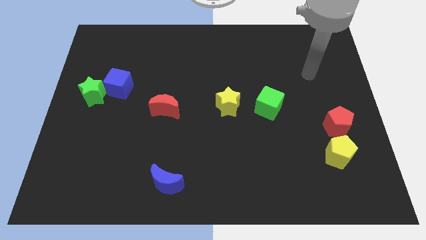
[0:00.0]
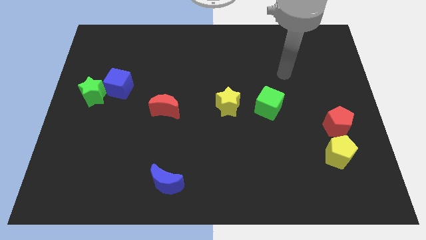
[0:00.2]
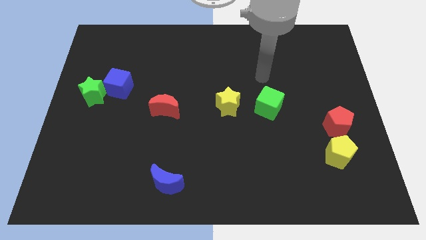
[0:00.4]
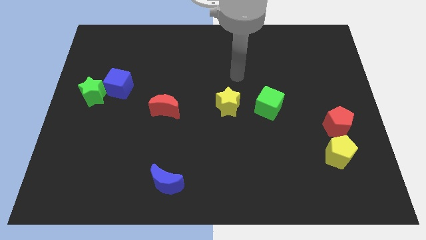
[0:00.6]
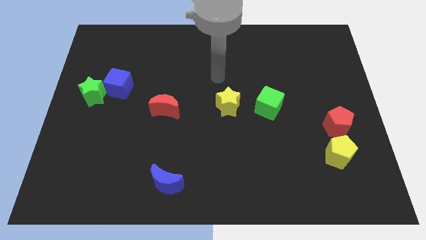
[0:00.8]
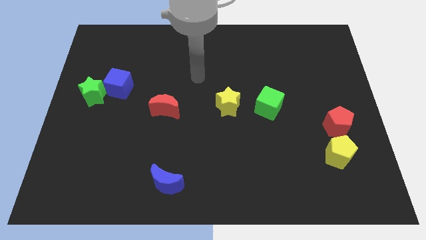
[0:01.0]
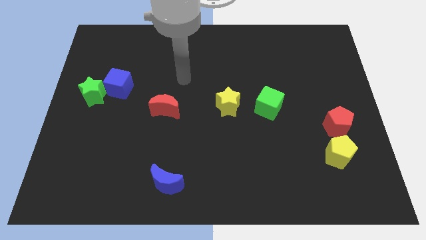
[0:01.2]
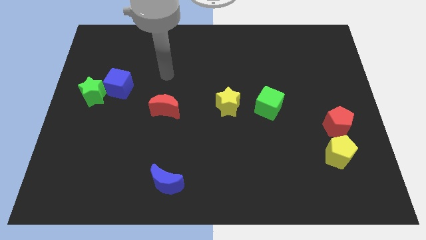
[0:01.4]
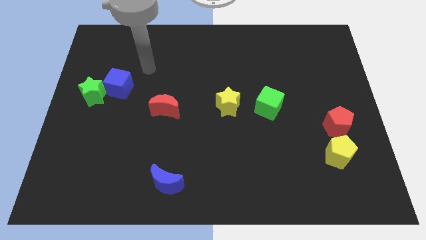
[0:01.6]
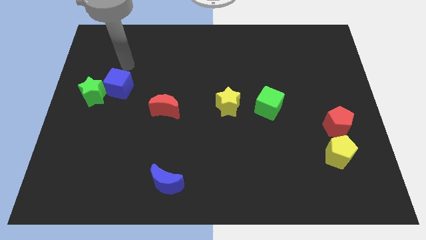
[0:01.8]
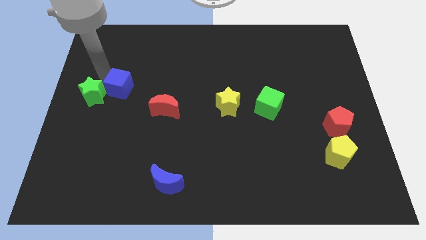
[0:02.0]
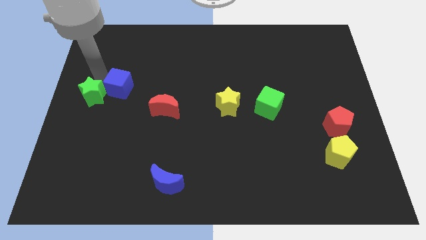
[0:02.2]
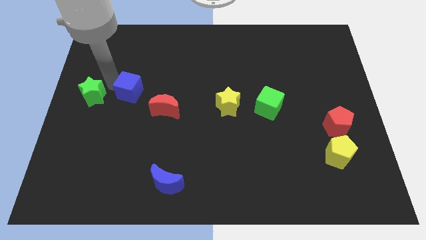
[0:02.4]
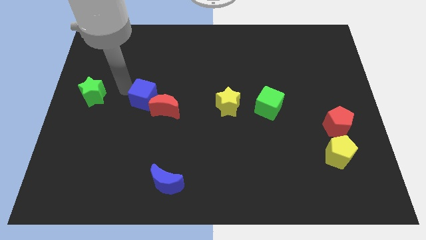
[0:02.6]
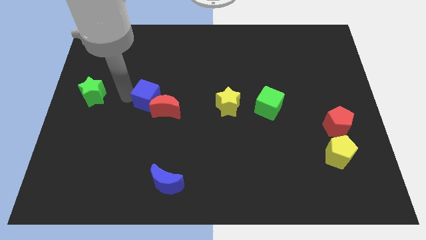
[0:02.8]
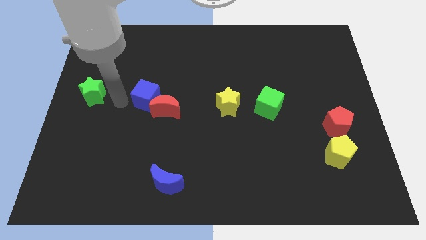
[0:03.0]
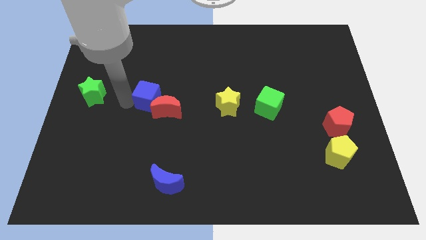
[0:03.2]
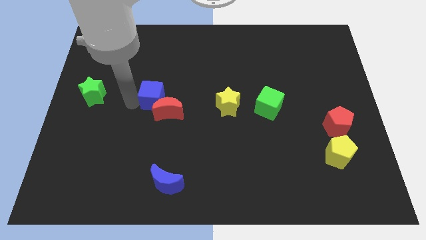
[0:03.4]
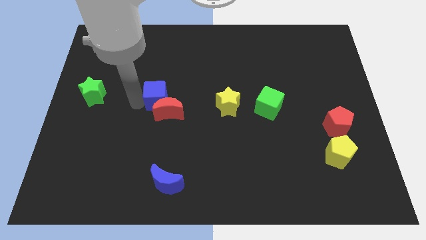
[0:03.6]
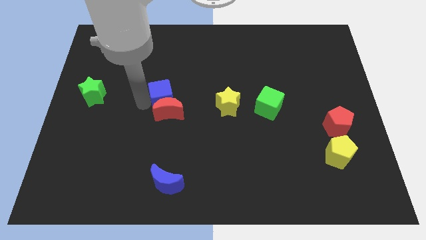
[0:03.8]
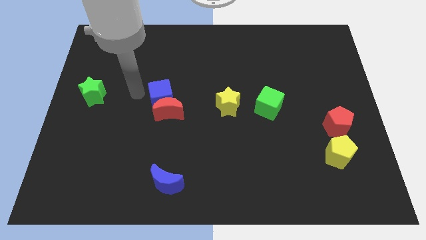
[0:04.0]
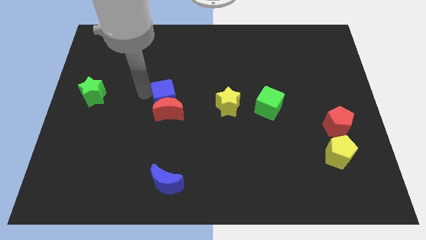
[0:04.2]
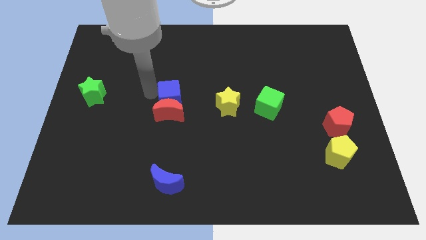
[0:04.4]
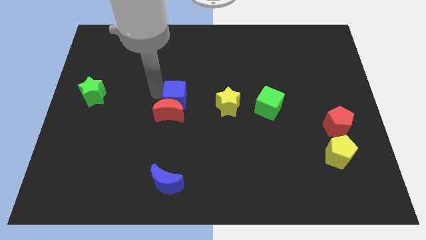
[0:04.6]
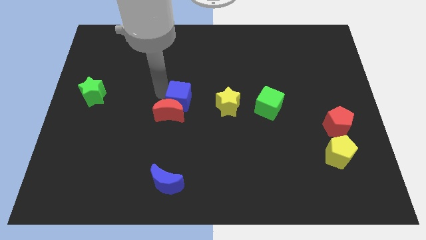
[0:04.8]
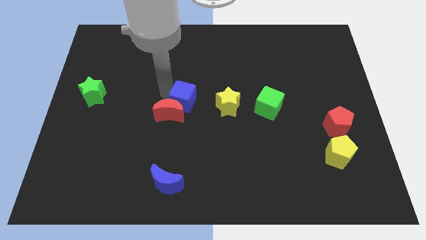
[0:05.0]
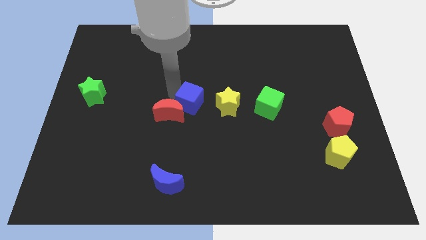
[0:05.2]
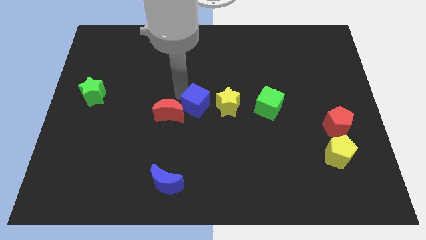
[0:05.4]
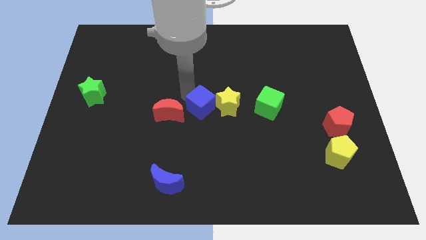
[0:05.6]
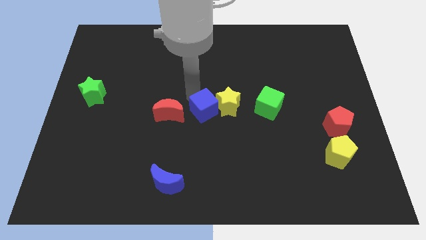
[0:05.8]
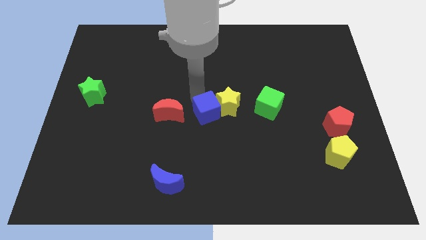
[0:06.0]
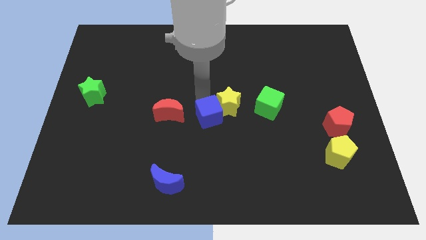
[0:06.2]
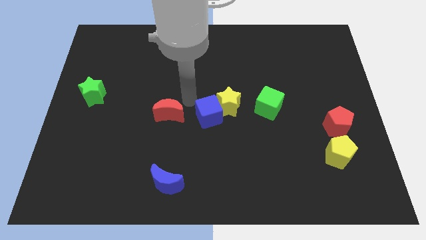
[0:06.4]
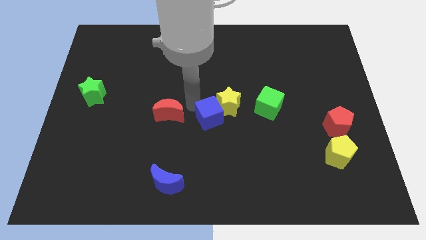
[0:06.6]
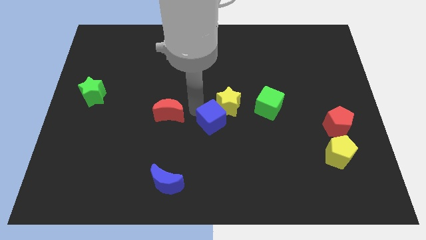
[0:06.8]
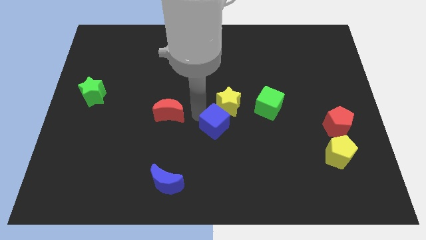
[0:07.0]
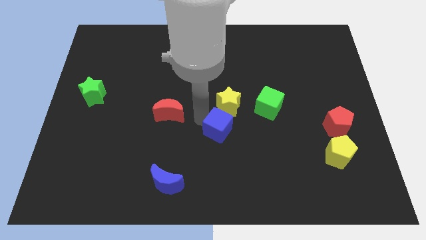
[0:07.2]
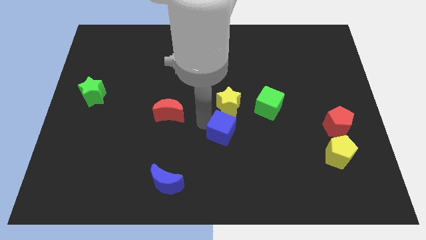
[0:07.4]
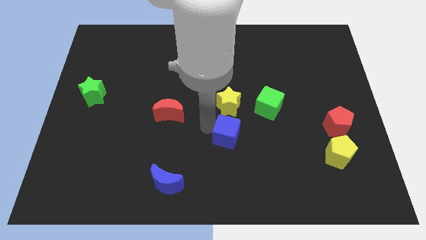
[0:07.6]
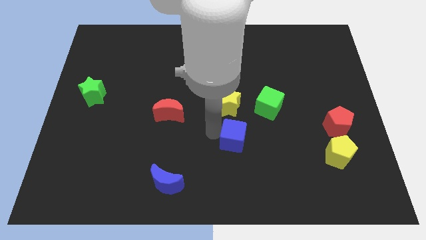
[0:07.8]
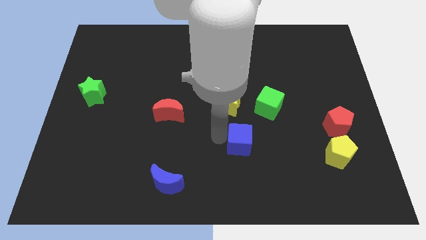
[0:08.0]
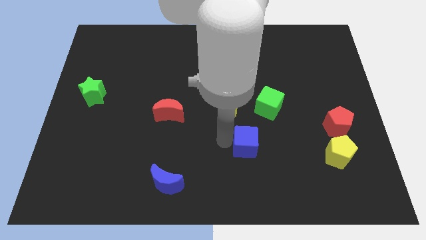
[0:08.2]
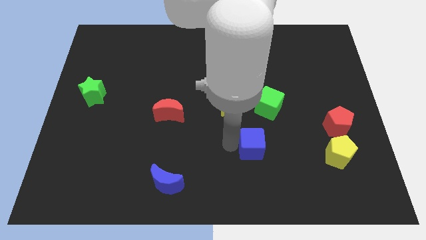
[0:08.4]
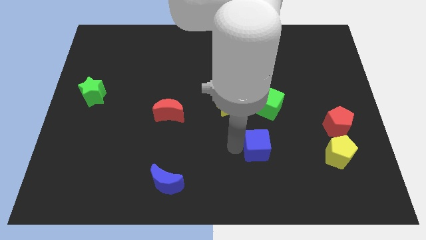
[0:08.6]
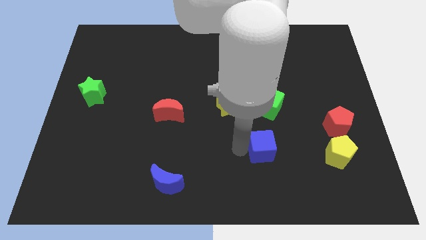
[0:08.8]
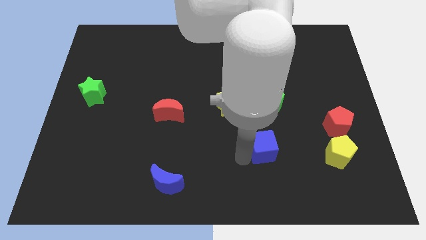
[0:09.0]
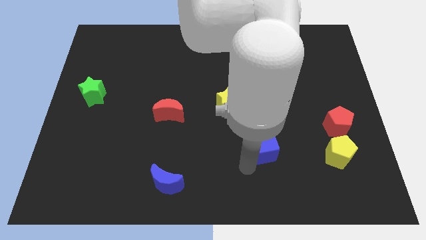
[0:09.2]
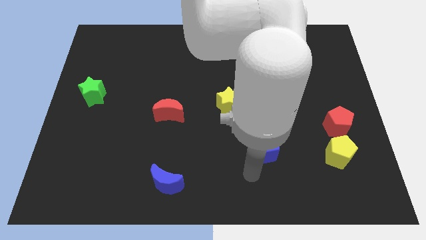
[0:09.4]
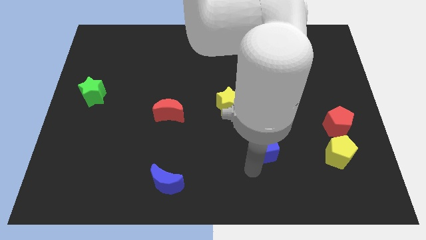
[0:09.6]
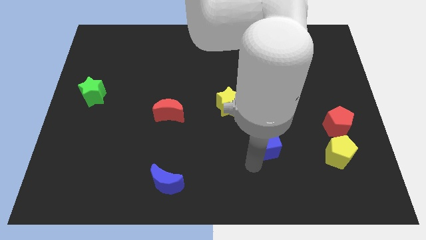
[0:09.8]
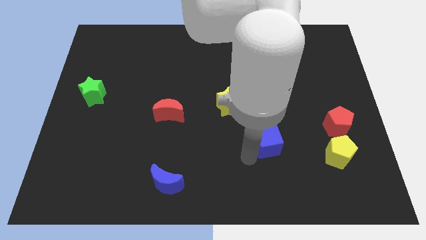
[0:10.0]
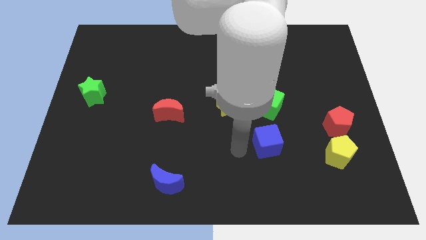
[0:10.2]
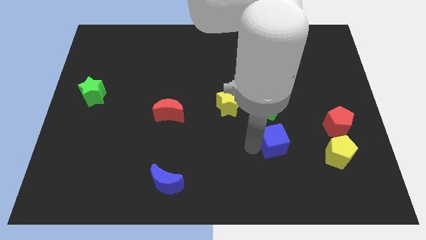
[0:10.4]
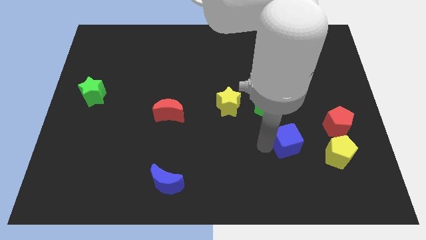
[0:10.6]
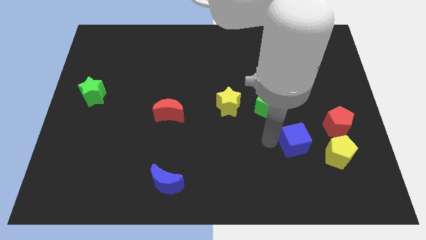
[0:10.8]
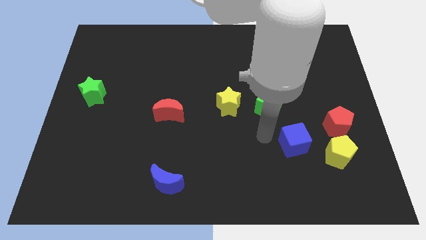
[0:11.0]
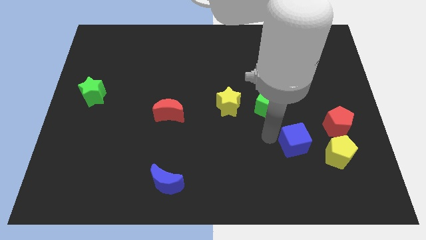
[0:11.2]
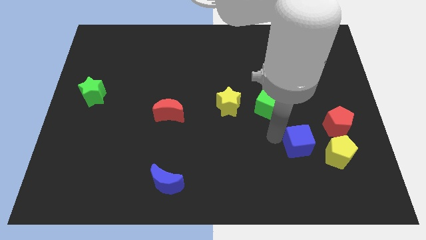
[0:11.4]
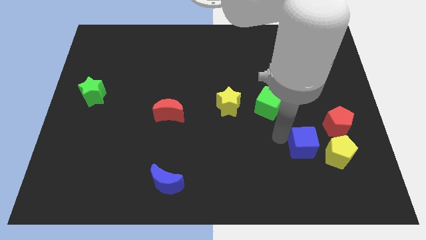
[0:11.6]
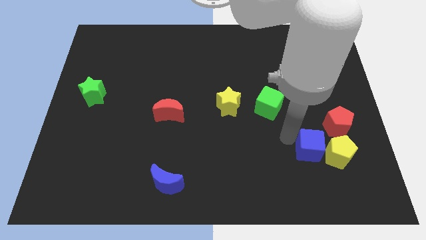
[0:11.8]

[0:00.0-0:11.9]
push the blue cube towards the yellow pentagon

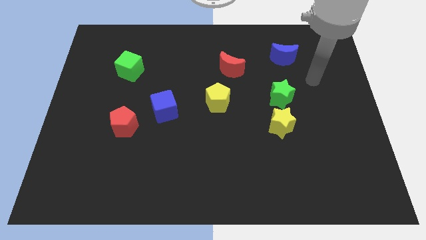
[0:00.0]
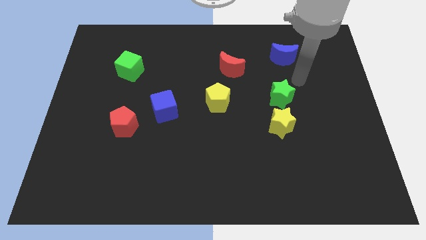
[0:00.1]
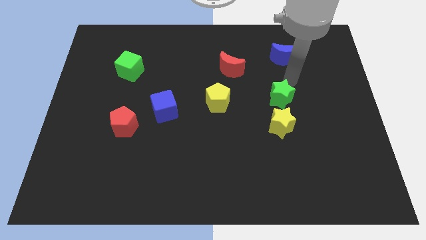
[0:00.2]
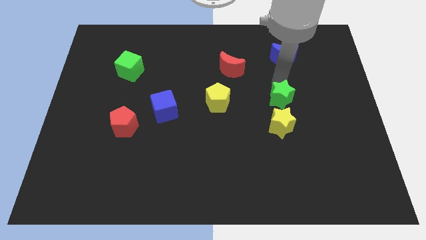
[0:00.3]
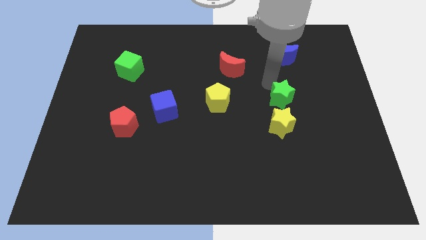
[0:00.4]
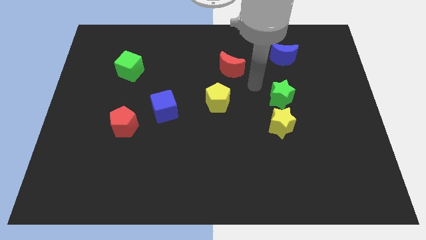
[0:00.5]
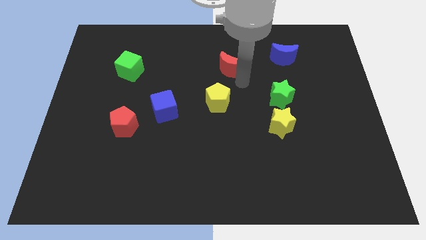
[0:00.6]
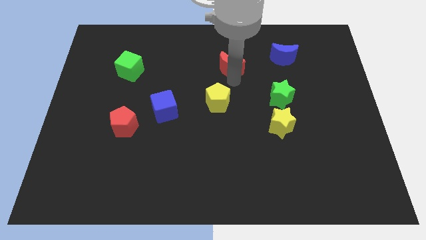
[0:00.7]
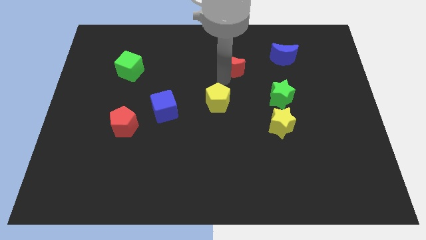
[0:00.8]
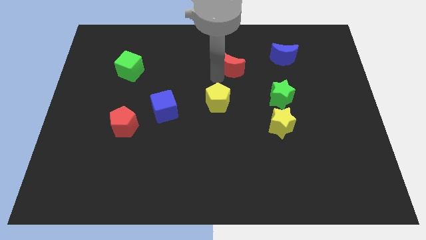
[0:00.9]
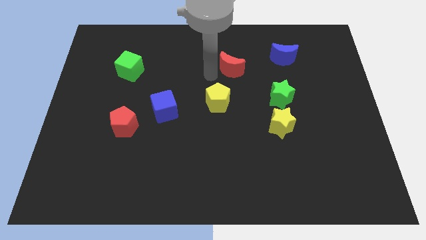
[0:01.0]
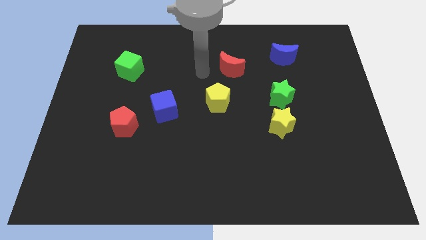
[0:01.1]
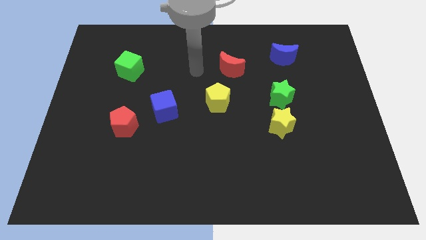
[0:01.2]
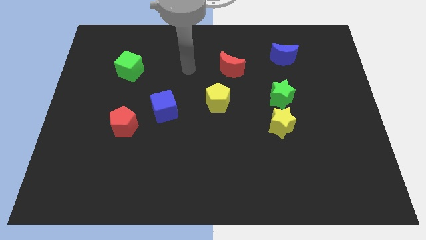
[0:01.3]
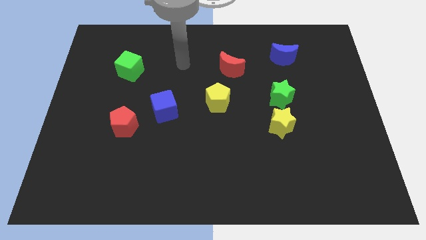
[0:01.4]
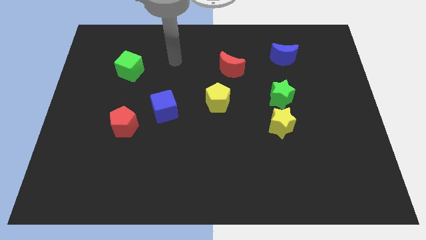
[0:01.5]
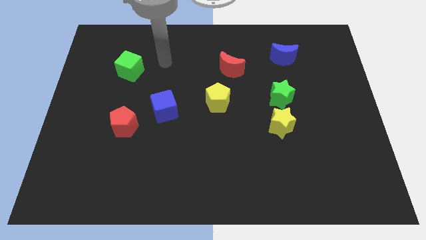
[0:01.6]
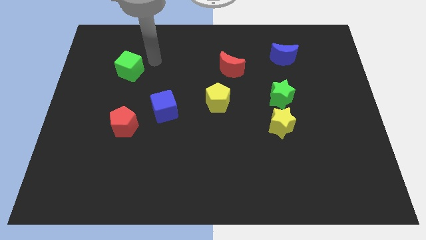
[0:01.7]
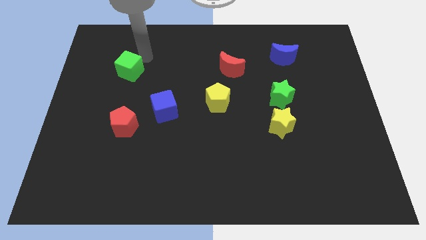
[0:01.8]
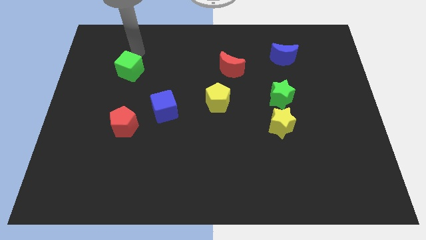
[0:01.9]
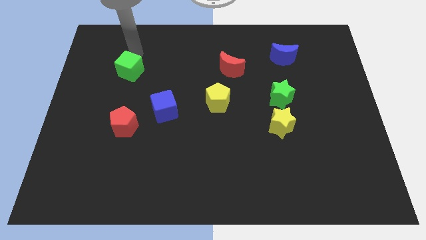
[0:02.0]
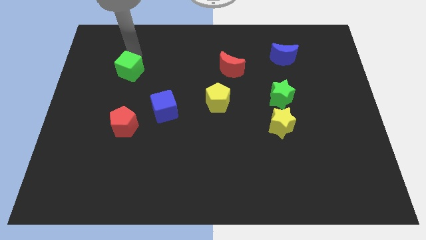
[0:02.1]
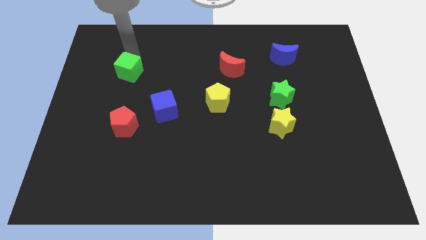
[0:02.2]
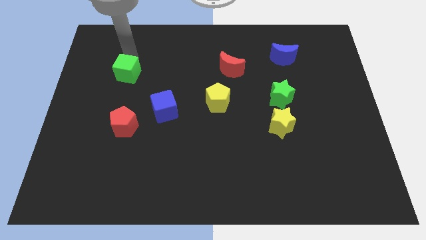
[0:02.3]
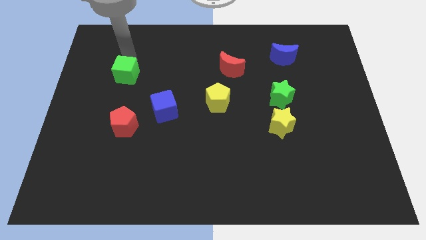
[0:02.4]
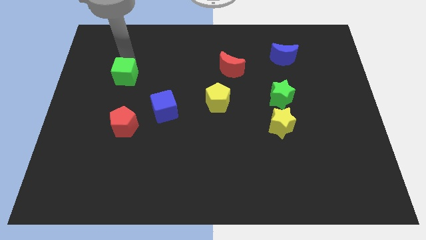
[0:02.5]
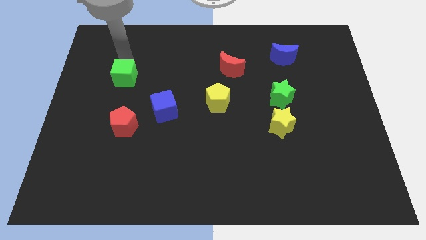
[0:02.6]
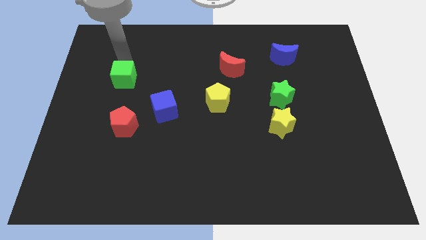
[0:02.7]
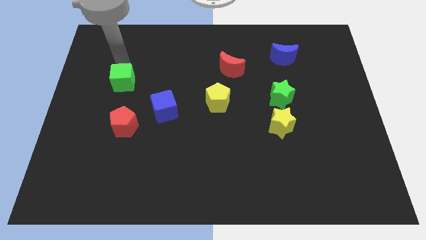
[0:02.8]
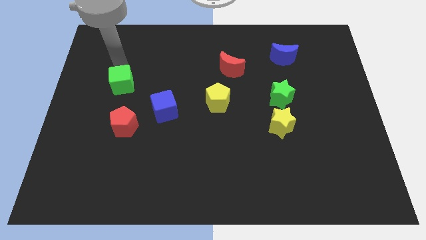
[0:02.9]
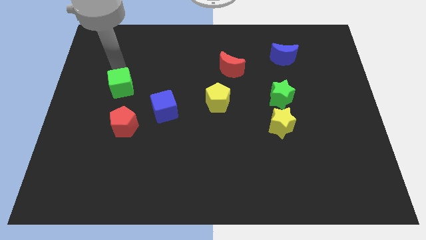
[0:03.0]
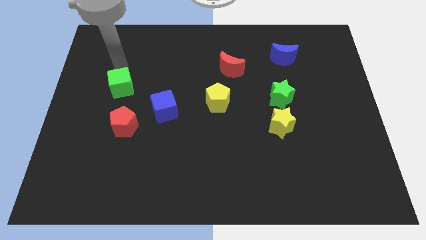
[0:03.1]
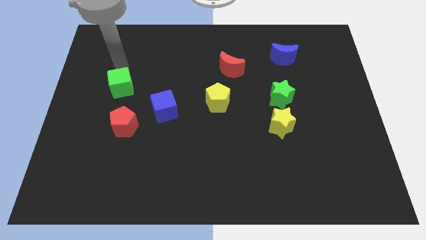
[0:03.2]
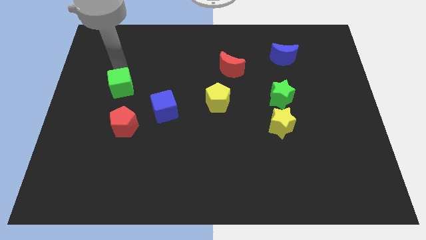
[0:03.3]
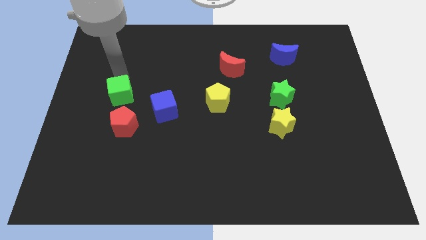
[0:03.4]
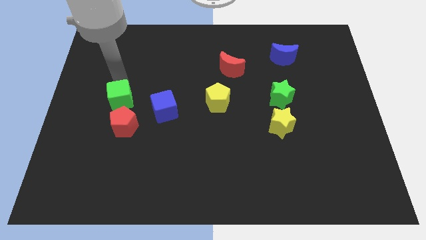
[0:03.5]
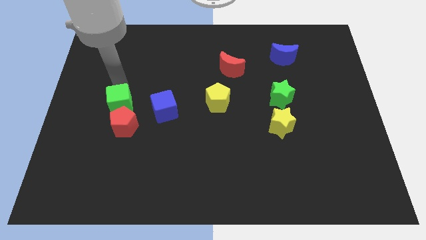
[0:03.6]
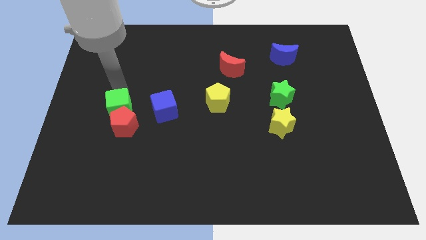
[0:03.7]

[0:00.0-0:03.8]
put the green cube next to the red pentagon
